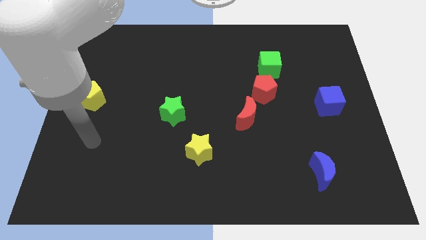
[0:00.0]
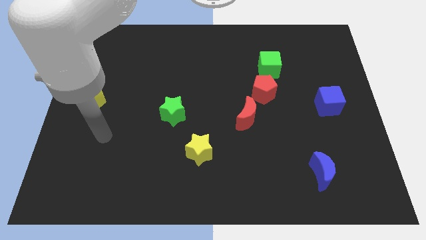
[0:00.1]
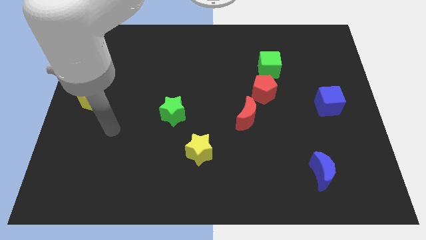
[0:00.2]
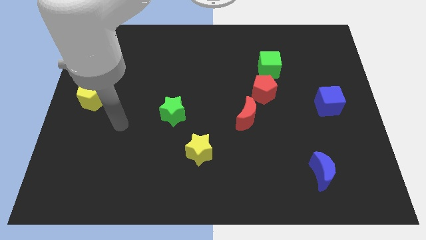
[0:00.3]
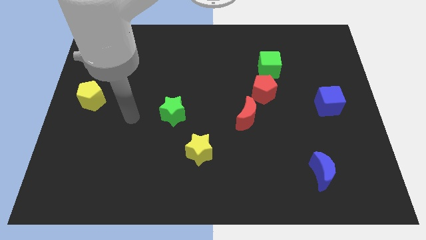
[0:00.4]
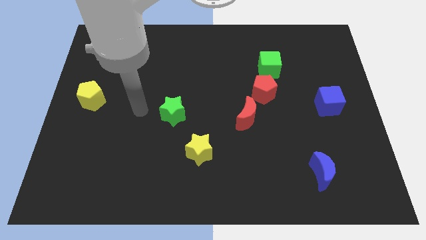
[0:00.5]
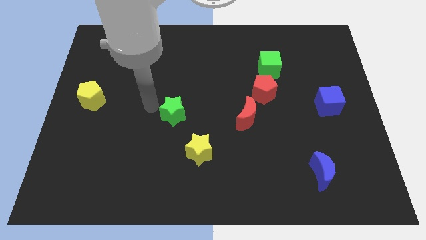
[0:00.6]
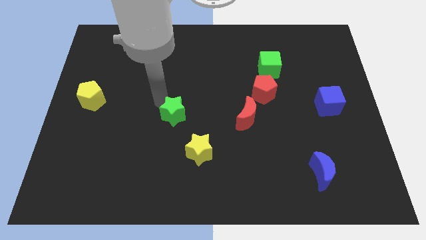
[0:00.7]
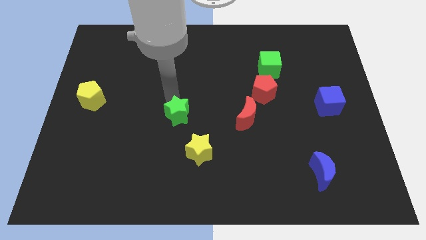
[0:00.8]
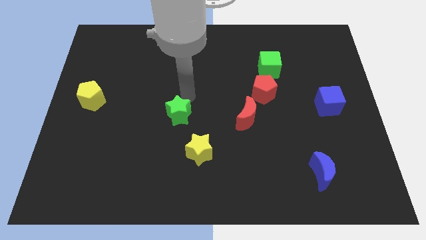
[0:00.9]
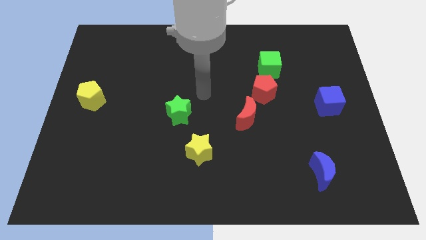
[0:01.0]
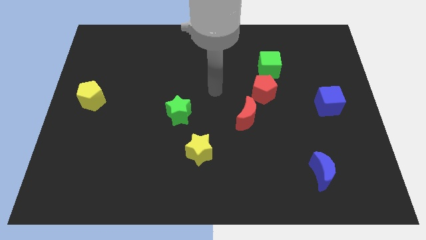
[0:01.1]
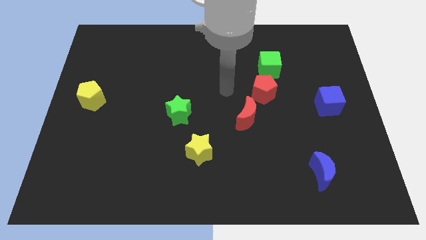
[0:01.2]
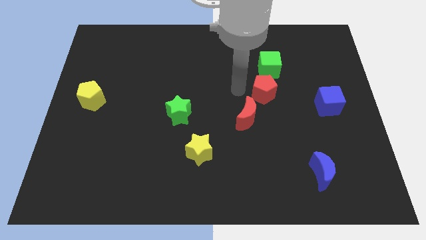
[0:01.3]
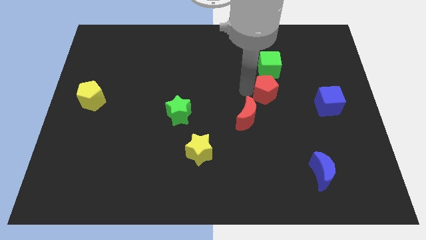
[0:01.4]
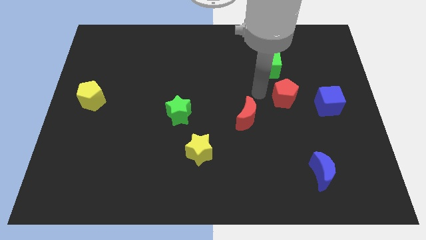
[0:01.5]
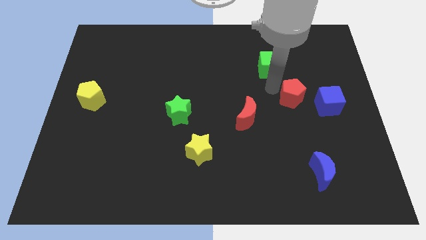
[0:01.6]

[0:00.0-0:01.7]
move the green cube away from the red pentagon

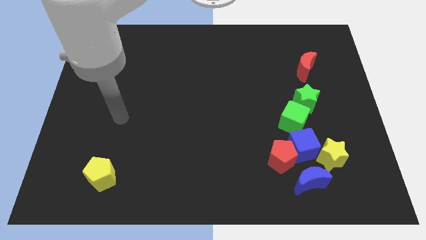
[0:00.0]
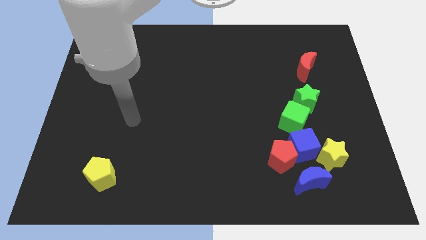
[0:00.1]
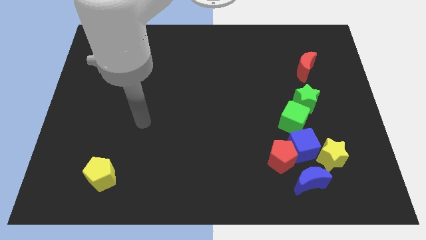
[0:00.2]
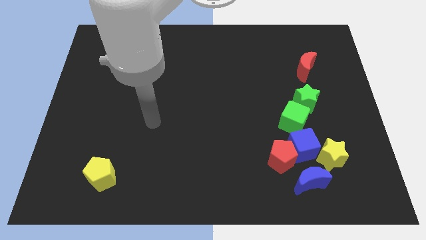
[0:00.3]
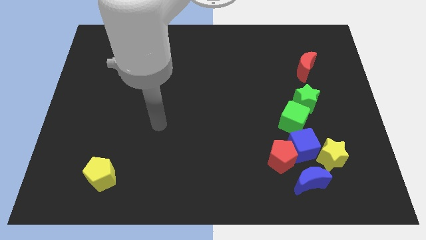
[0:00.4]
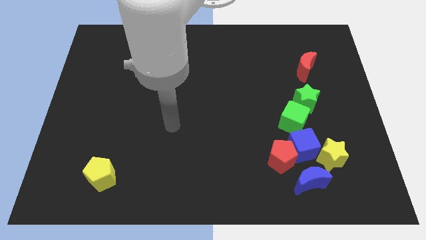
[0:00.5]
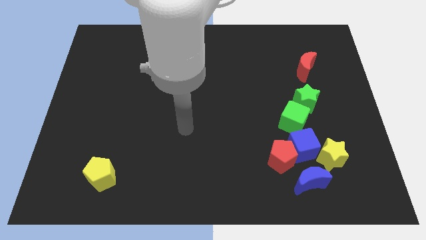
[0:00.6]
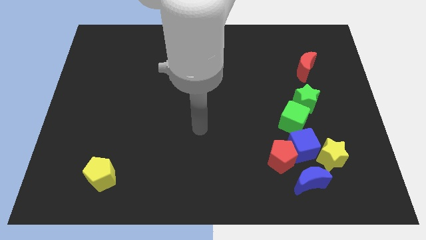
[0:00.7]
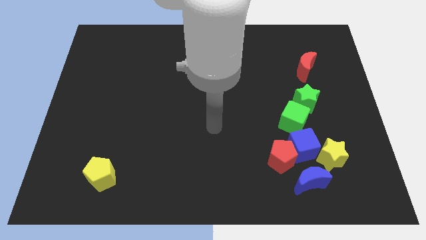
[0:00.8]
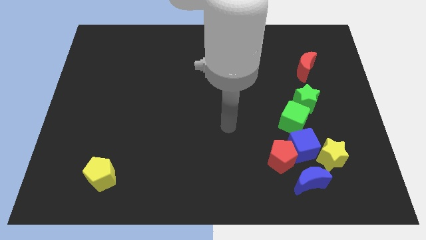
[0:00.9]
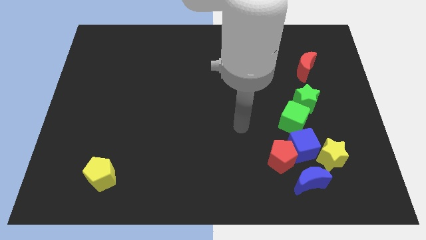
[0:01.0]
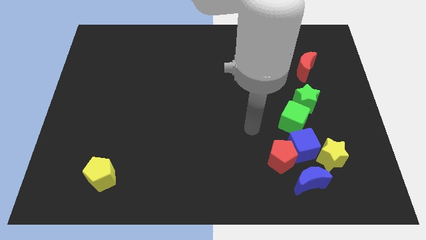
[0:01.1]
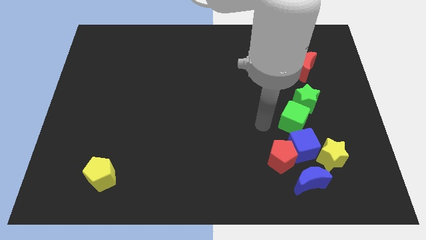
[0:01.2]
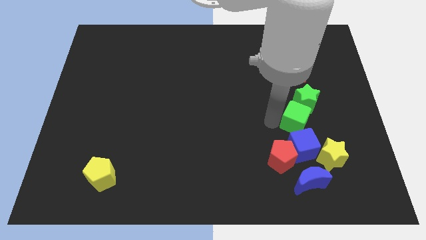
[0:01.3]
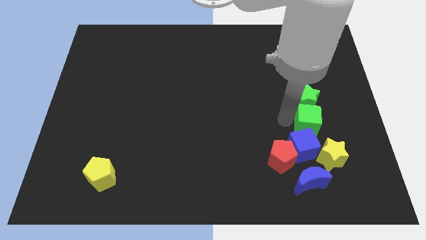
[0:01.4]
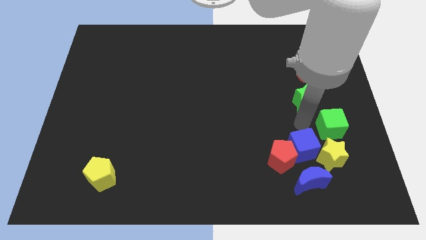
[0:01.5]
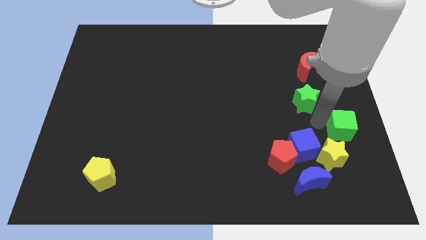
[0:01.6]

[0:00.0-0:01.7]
pull the green star apart from the green cube

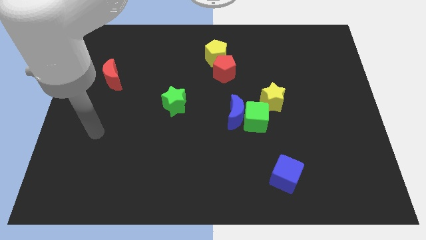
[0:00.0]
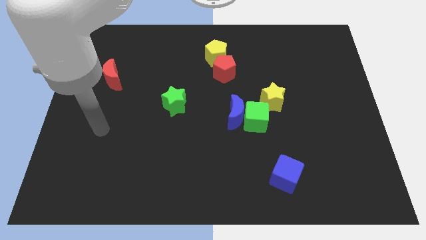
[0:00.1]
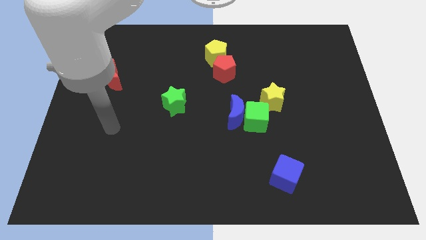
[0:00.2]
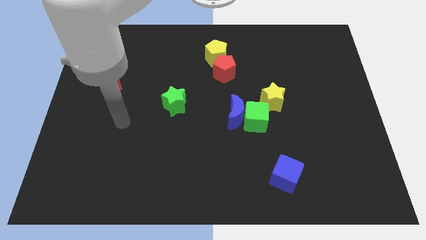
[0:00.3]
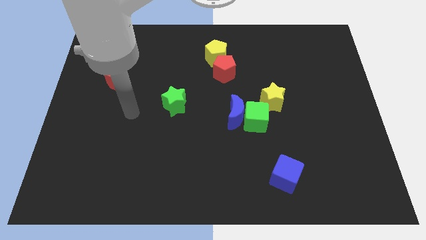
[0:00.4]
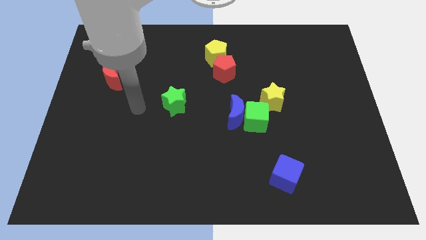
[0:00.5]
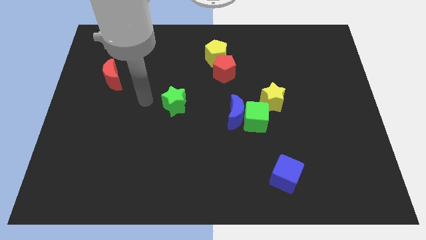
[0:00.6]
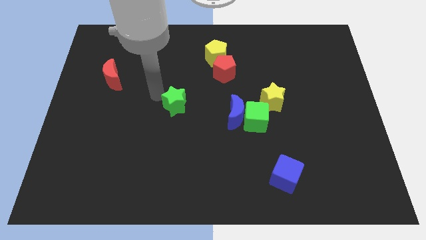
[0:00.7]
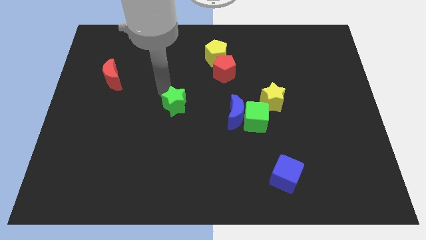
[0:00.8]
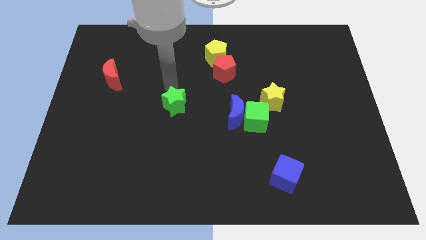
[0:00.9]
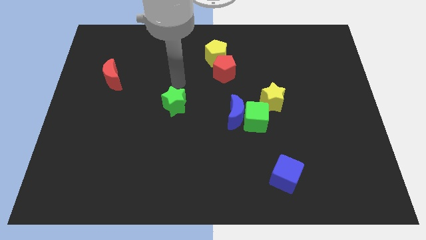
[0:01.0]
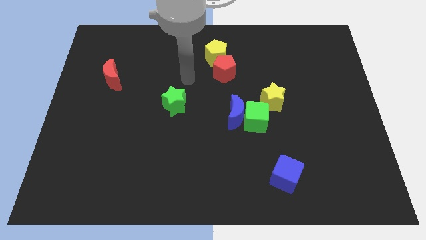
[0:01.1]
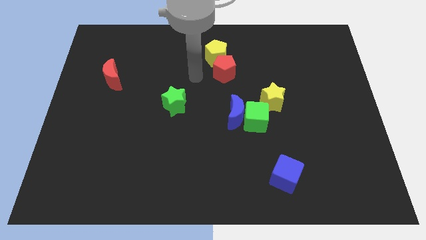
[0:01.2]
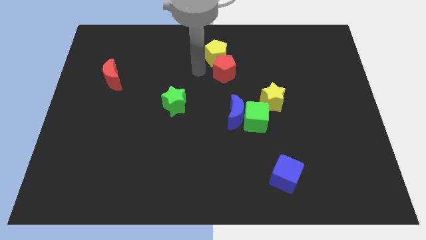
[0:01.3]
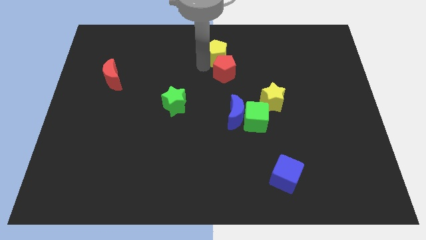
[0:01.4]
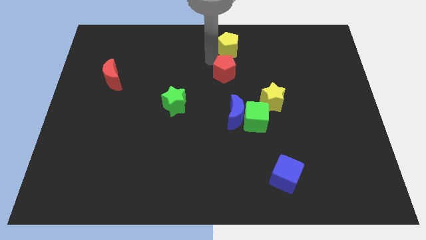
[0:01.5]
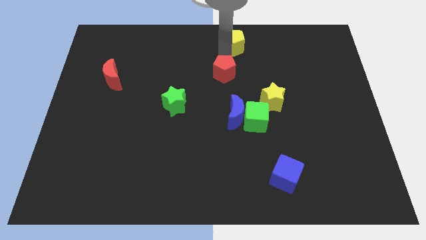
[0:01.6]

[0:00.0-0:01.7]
pull the red pentagon apart from the yellow pentagon

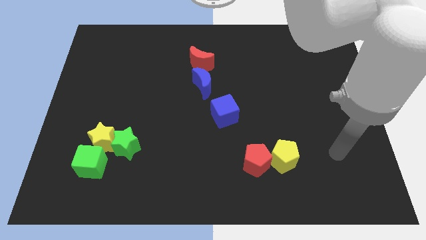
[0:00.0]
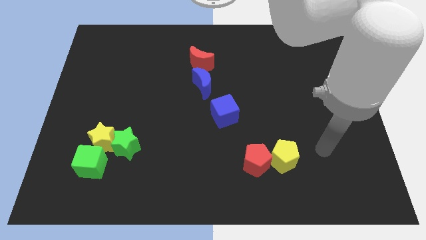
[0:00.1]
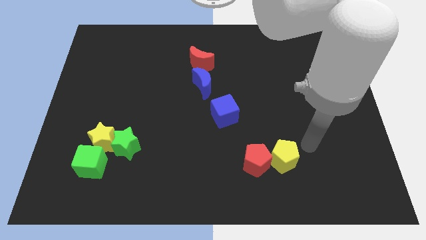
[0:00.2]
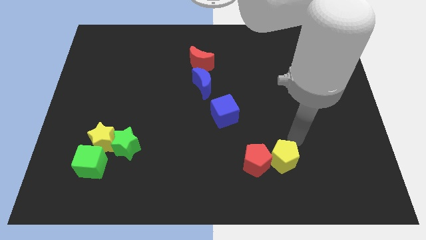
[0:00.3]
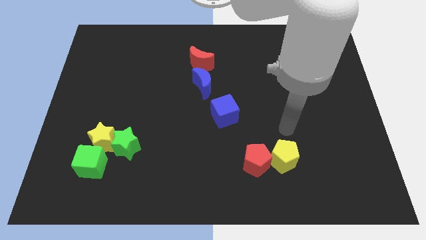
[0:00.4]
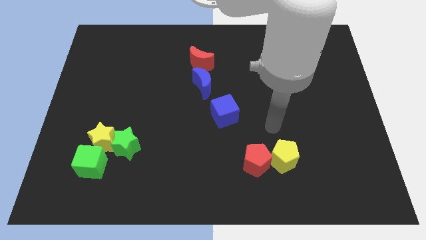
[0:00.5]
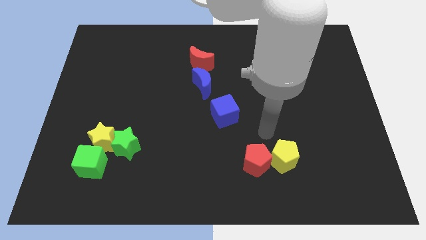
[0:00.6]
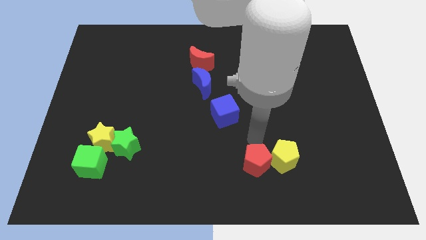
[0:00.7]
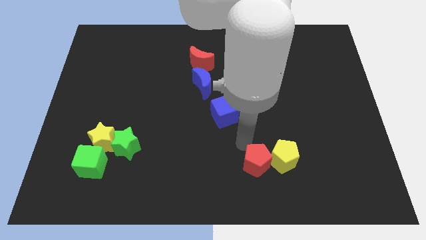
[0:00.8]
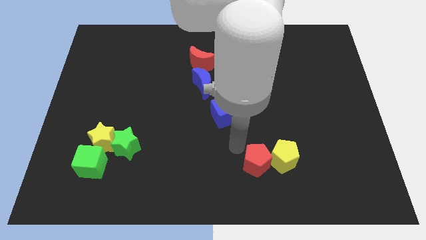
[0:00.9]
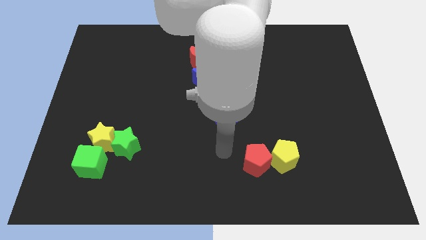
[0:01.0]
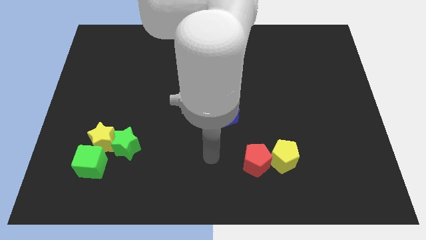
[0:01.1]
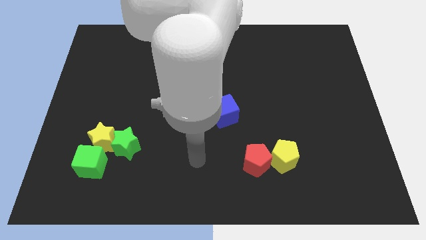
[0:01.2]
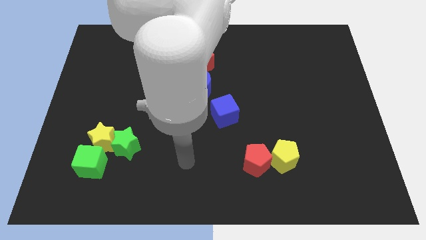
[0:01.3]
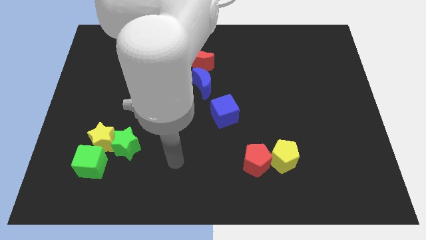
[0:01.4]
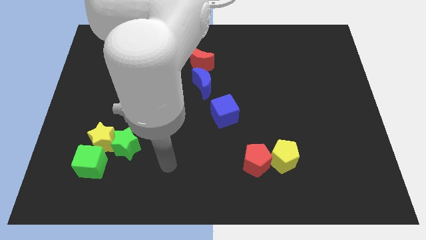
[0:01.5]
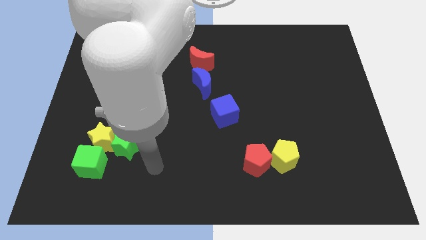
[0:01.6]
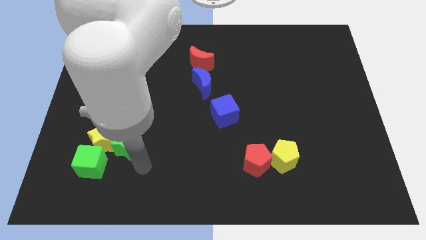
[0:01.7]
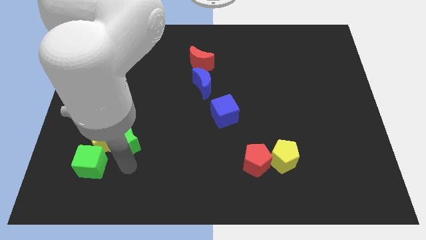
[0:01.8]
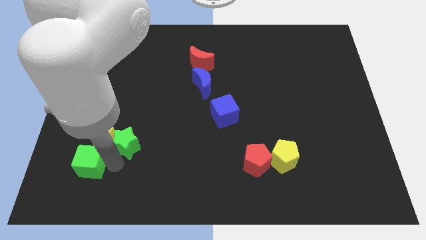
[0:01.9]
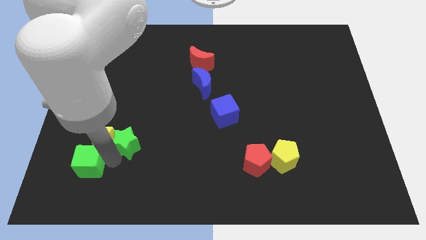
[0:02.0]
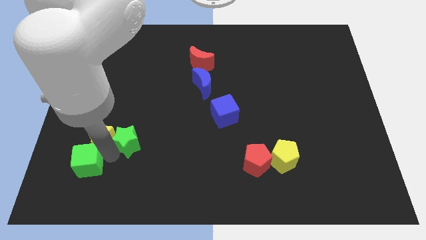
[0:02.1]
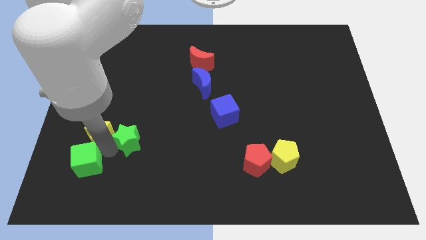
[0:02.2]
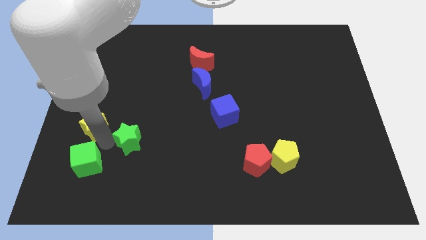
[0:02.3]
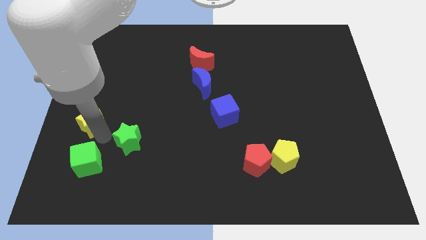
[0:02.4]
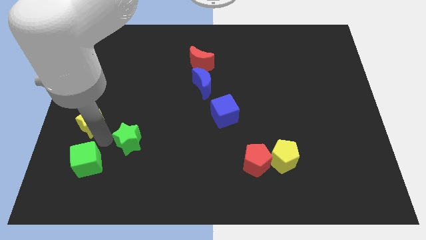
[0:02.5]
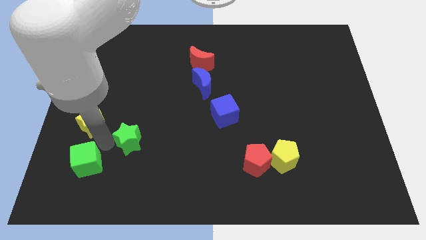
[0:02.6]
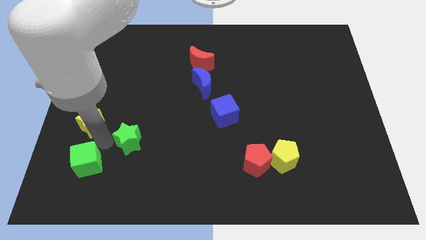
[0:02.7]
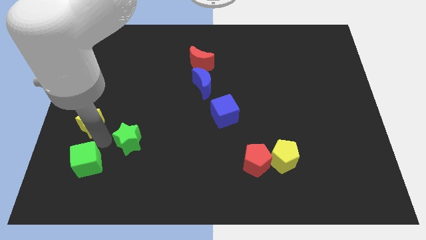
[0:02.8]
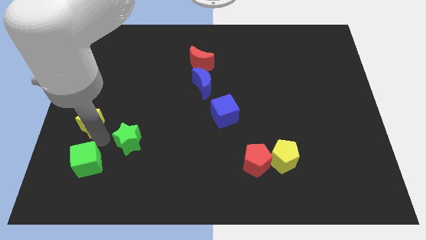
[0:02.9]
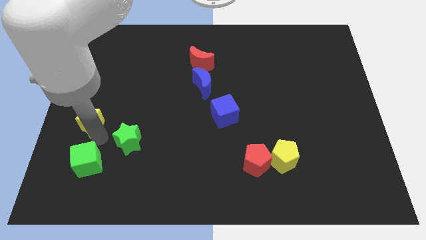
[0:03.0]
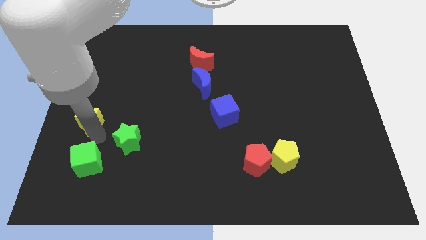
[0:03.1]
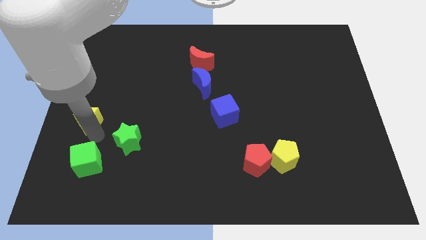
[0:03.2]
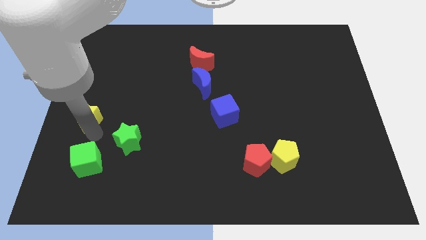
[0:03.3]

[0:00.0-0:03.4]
move the yellow star away from the green star and green cube

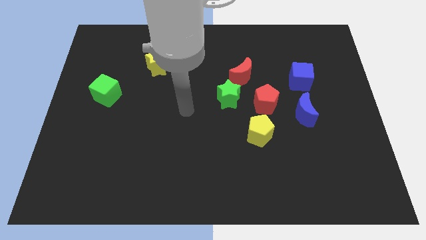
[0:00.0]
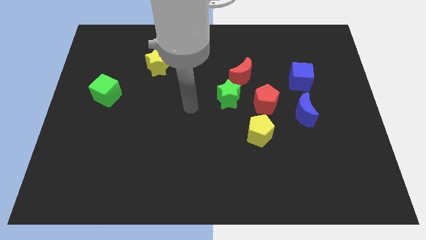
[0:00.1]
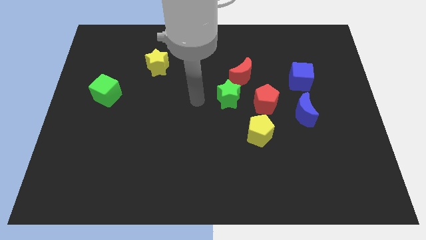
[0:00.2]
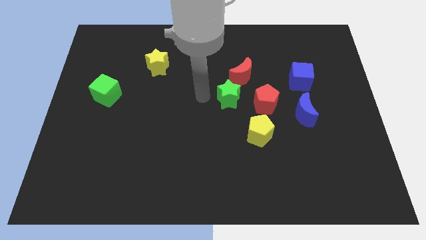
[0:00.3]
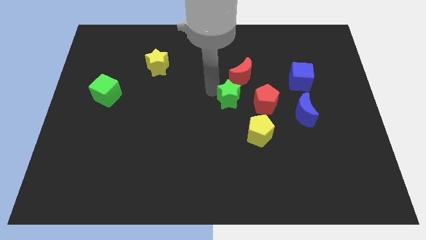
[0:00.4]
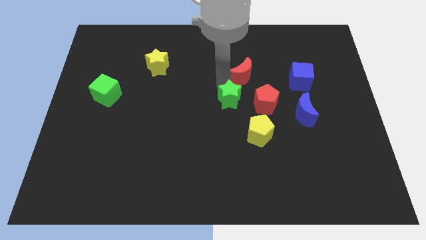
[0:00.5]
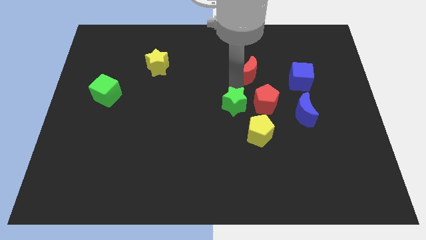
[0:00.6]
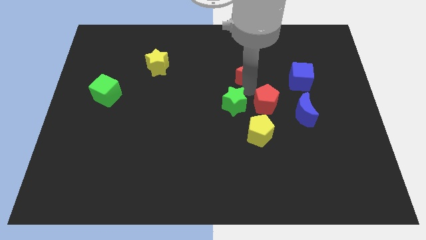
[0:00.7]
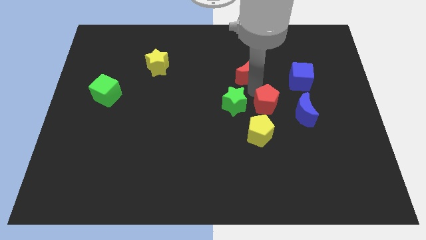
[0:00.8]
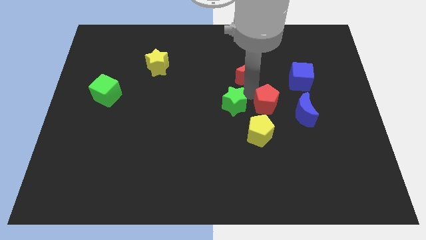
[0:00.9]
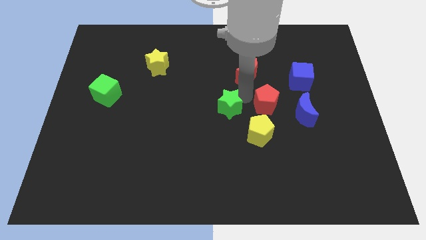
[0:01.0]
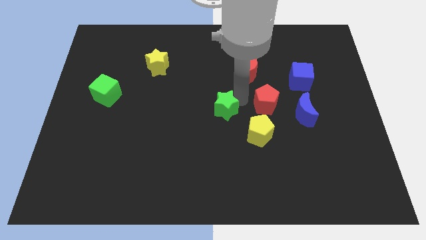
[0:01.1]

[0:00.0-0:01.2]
pull the green star apart from the red moon and red pentagon
